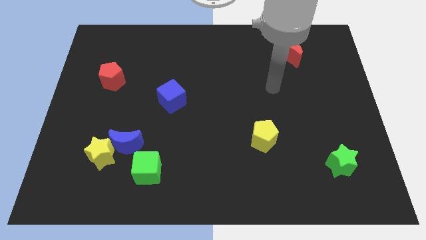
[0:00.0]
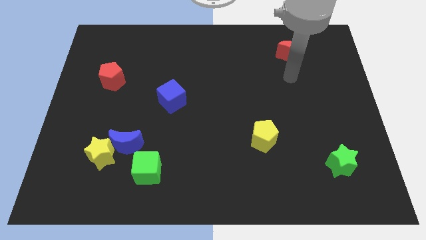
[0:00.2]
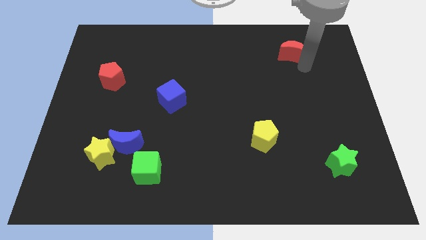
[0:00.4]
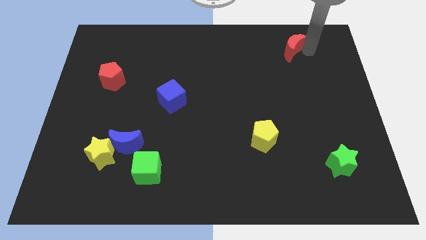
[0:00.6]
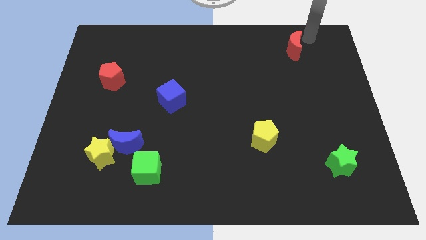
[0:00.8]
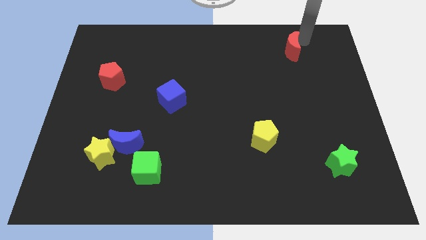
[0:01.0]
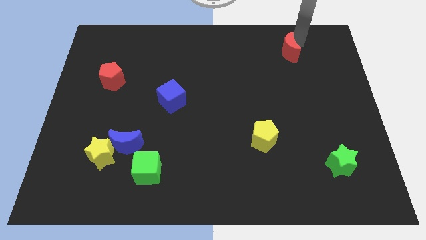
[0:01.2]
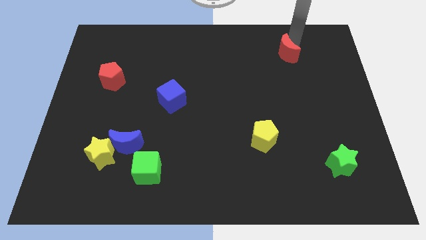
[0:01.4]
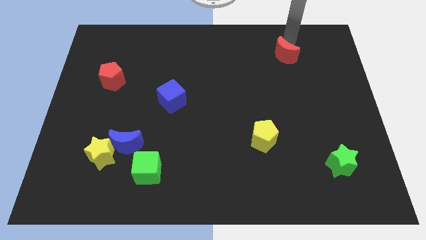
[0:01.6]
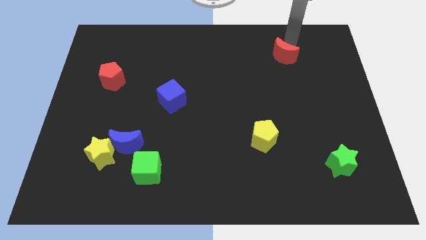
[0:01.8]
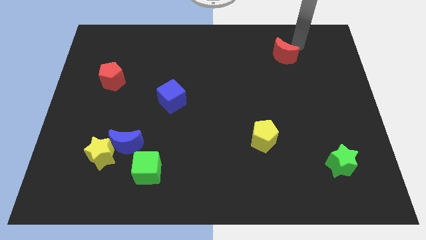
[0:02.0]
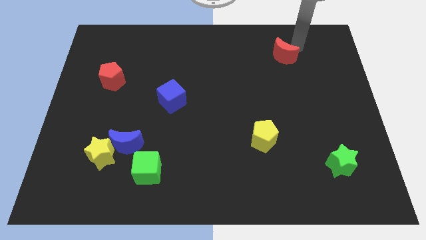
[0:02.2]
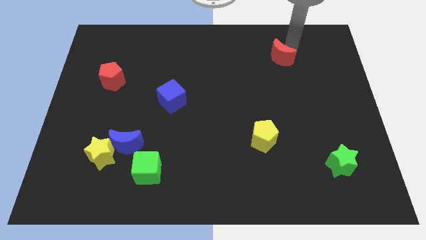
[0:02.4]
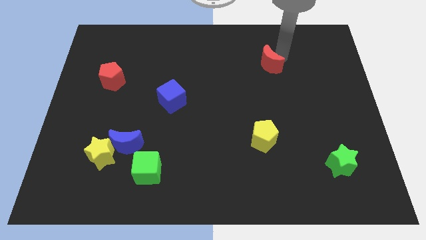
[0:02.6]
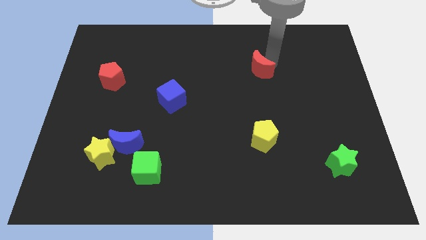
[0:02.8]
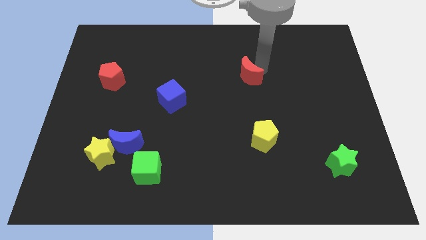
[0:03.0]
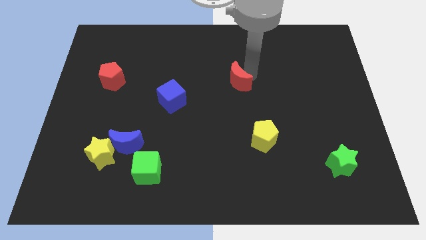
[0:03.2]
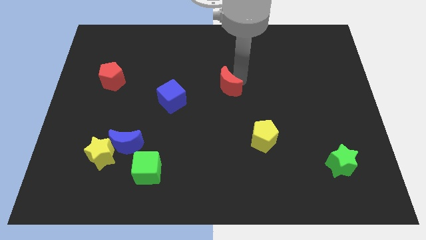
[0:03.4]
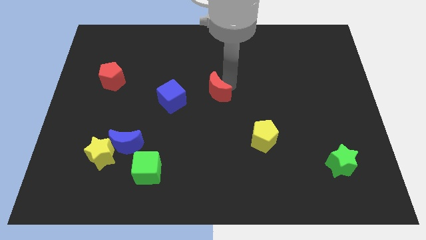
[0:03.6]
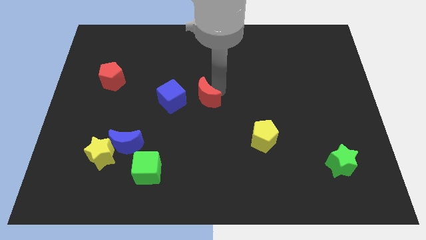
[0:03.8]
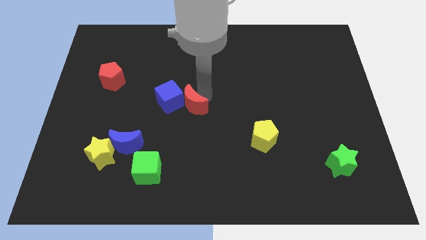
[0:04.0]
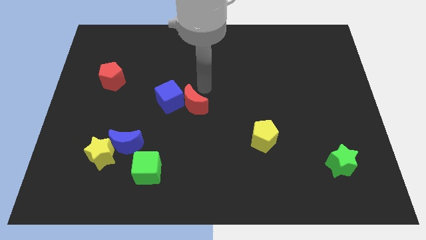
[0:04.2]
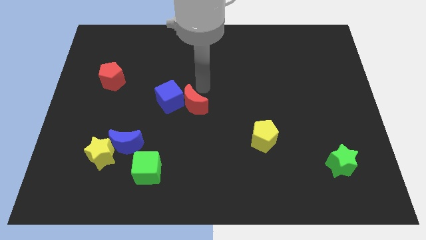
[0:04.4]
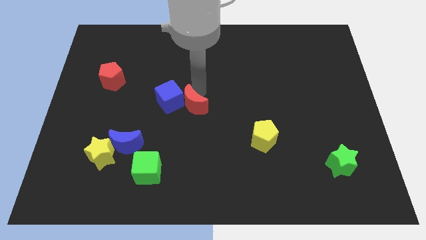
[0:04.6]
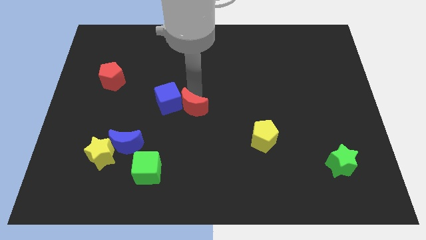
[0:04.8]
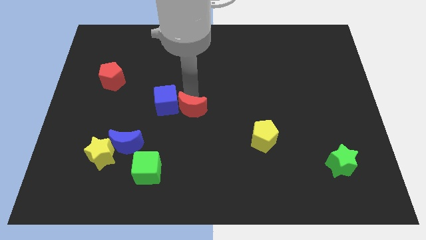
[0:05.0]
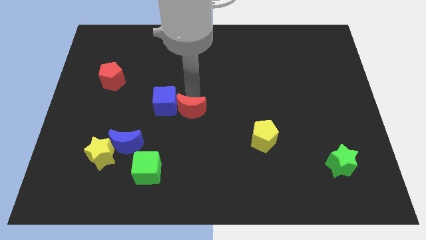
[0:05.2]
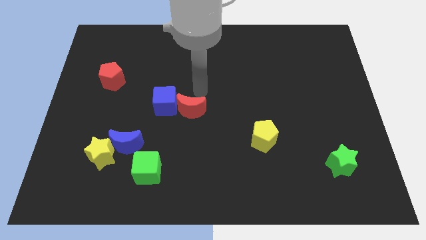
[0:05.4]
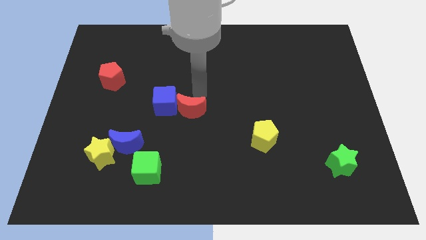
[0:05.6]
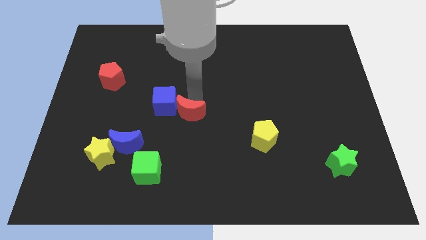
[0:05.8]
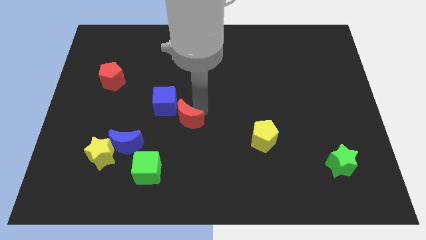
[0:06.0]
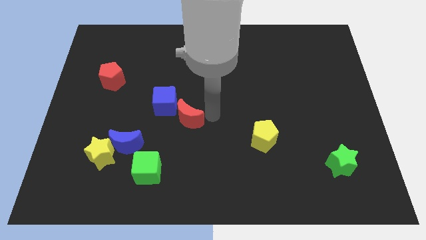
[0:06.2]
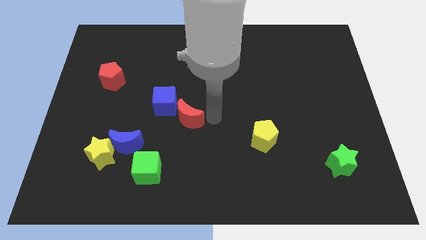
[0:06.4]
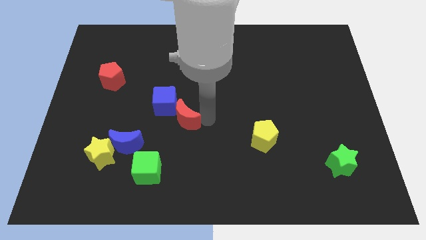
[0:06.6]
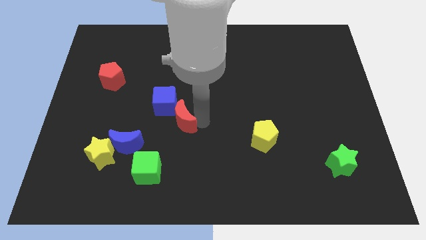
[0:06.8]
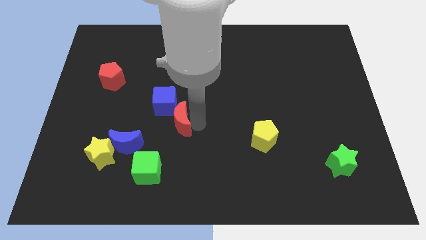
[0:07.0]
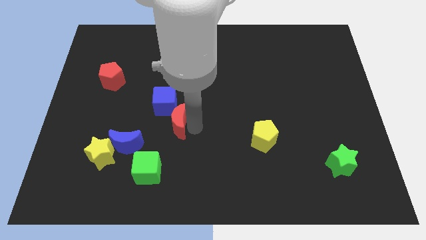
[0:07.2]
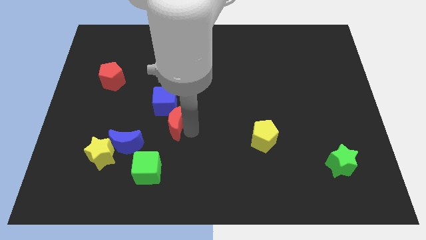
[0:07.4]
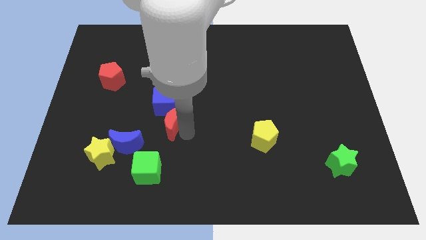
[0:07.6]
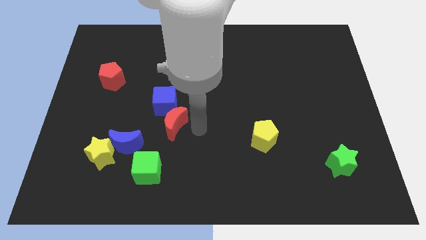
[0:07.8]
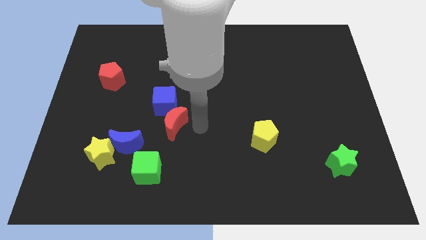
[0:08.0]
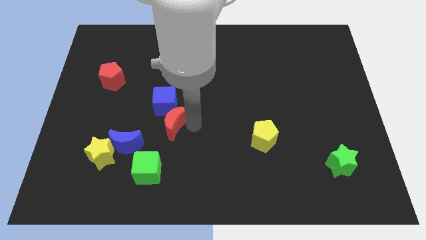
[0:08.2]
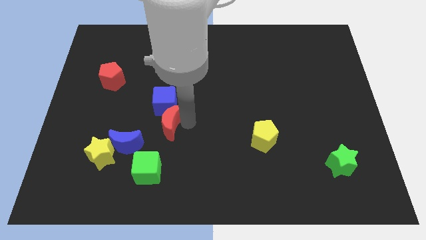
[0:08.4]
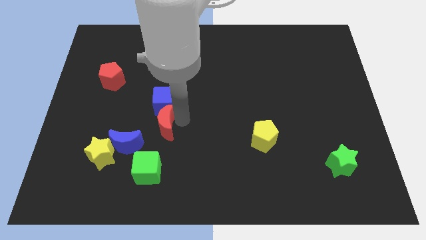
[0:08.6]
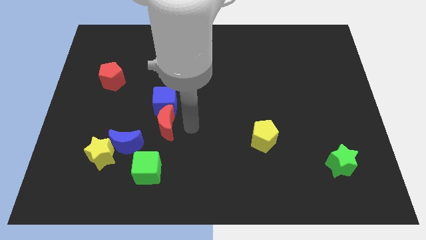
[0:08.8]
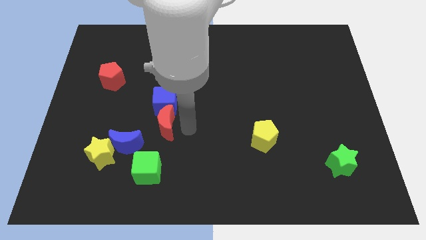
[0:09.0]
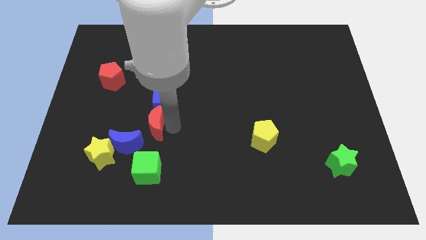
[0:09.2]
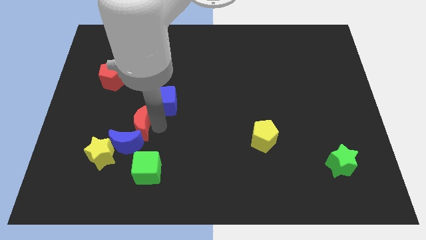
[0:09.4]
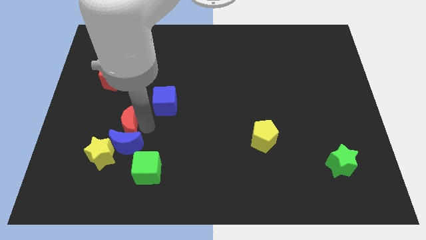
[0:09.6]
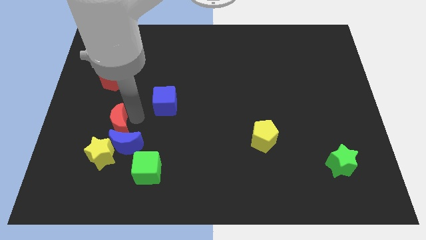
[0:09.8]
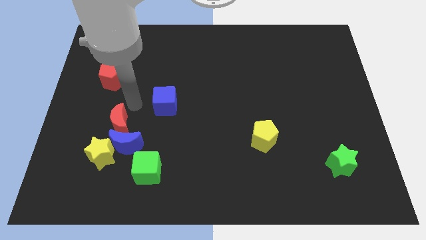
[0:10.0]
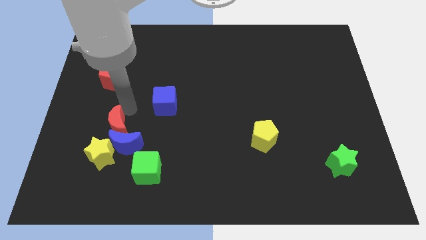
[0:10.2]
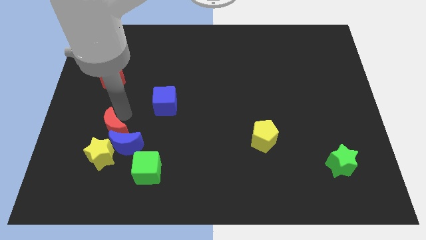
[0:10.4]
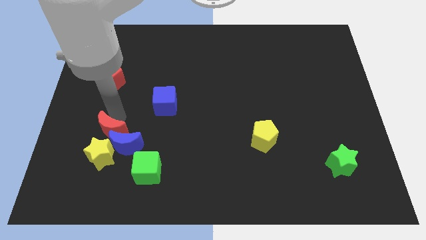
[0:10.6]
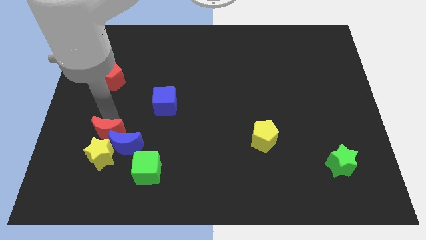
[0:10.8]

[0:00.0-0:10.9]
push the red moon close to the yellow star

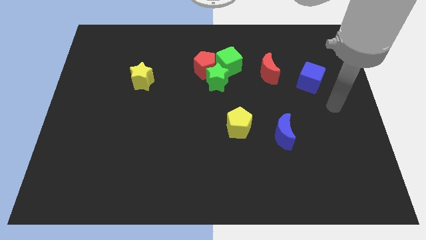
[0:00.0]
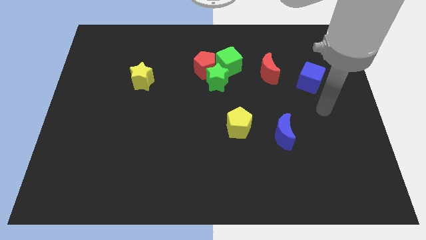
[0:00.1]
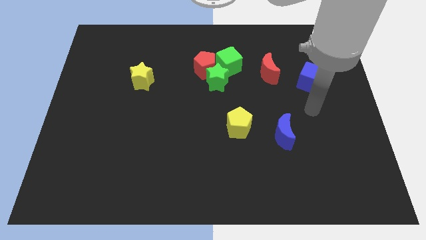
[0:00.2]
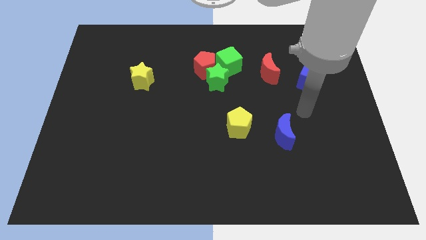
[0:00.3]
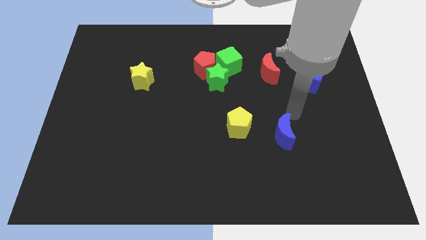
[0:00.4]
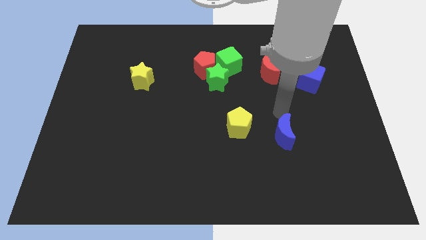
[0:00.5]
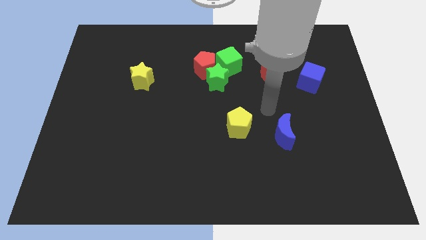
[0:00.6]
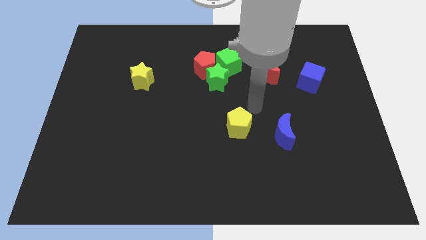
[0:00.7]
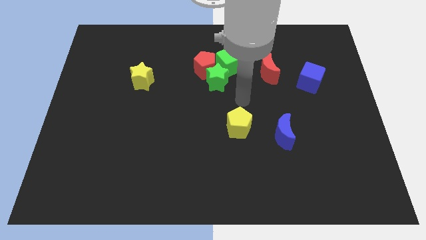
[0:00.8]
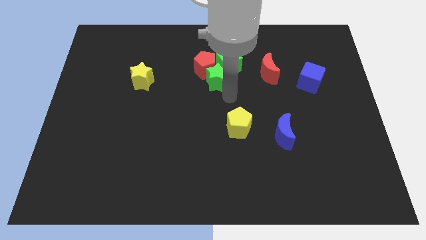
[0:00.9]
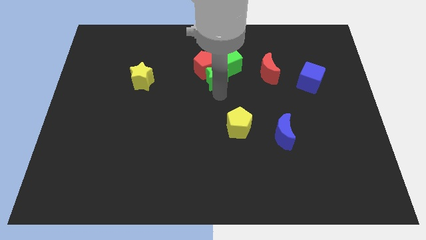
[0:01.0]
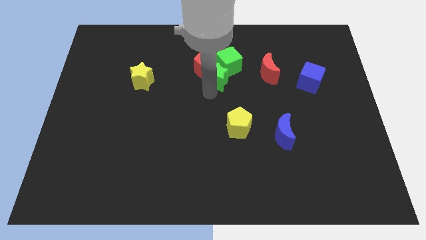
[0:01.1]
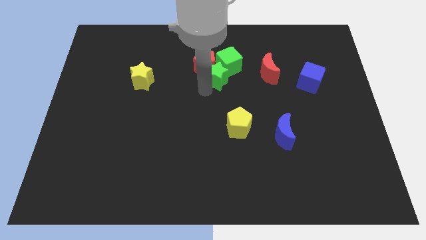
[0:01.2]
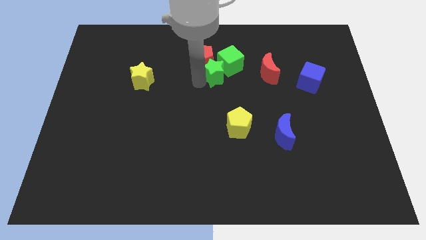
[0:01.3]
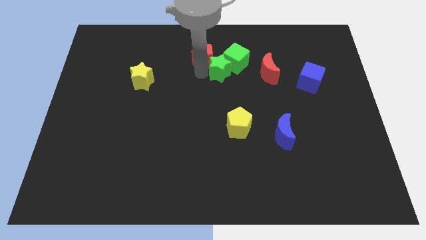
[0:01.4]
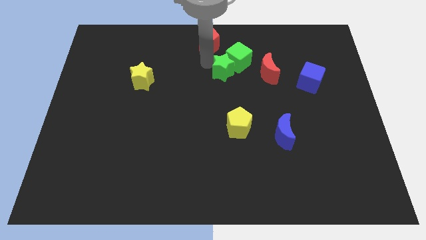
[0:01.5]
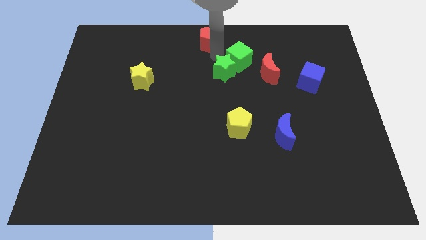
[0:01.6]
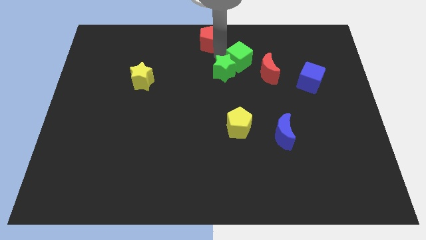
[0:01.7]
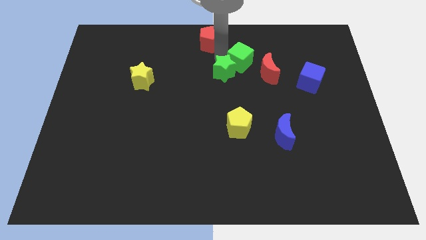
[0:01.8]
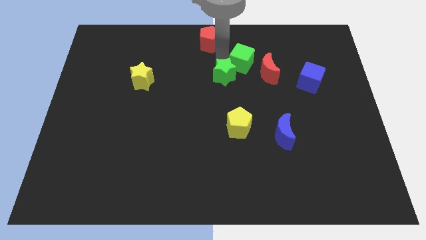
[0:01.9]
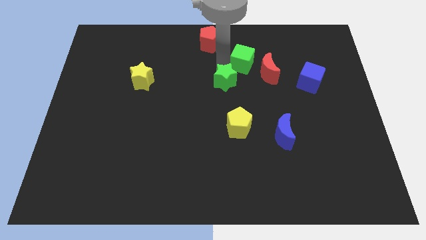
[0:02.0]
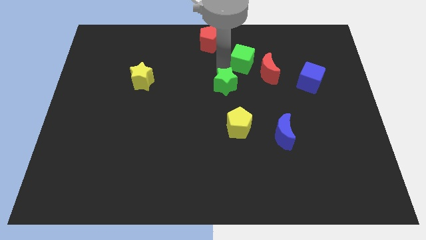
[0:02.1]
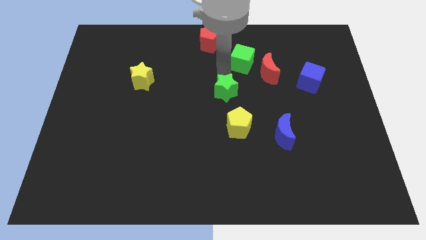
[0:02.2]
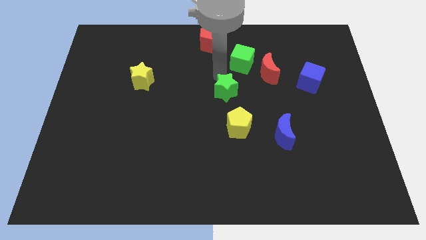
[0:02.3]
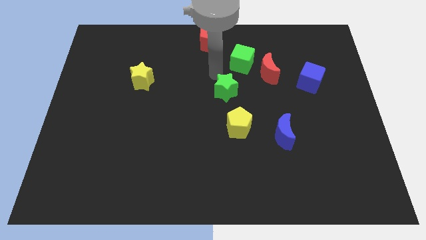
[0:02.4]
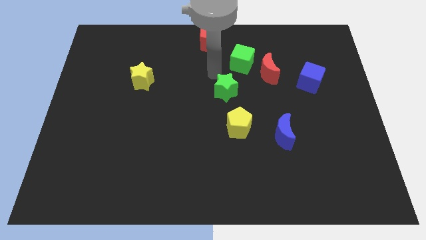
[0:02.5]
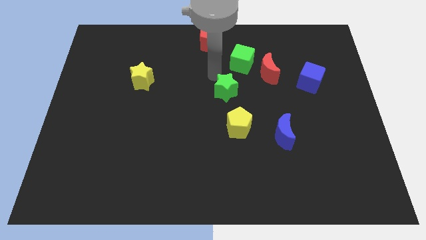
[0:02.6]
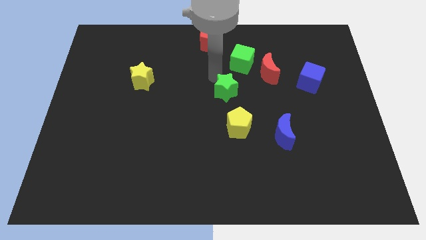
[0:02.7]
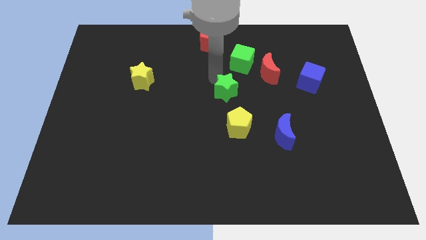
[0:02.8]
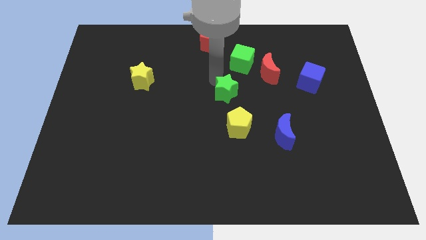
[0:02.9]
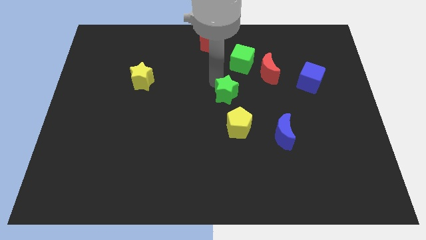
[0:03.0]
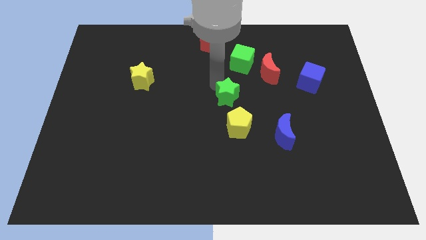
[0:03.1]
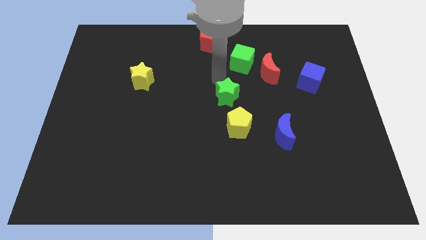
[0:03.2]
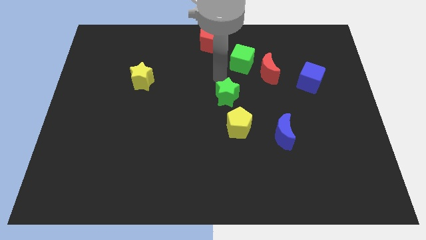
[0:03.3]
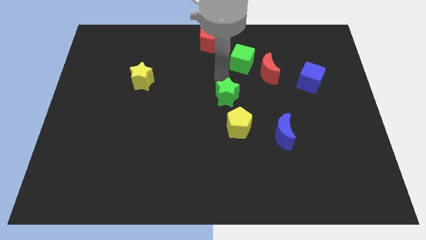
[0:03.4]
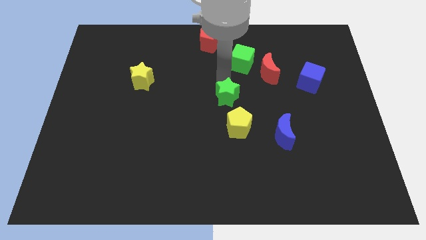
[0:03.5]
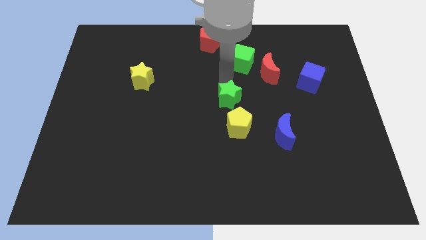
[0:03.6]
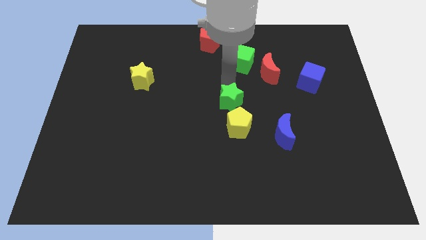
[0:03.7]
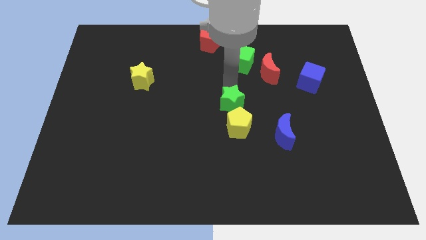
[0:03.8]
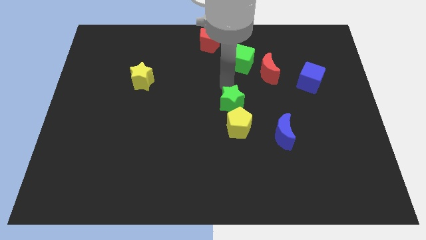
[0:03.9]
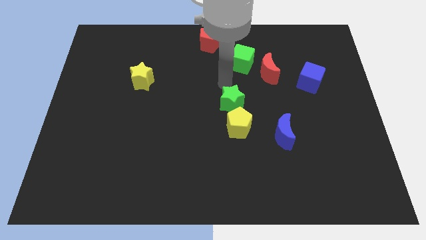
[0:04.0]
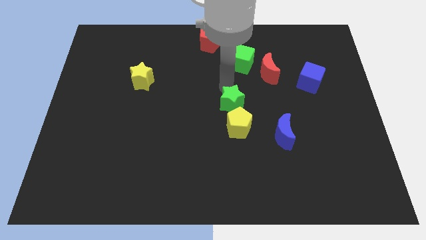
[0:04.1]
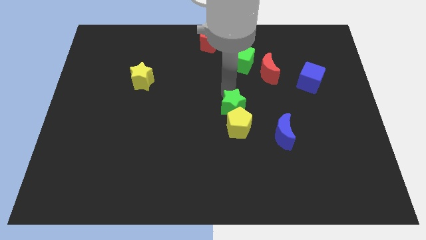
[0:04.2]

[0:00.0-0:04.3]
put the green star towards the yellow pentagon
